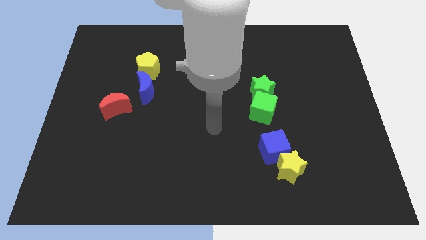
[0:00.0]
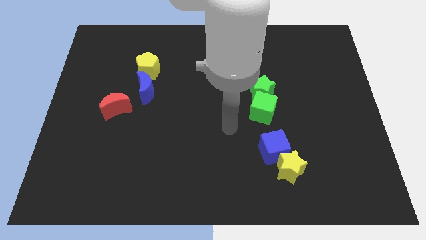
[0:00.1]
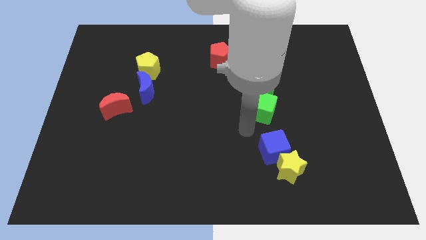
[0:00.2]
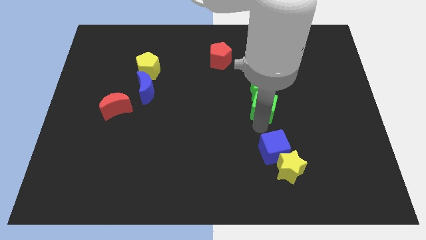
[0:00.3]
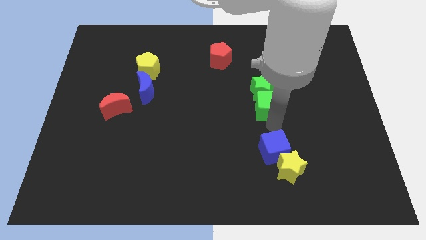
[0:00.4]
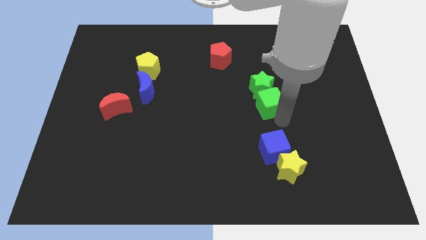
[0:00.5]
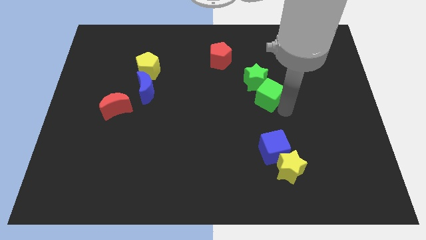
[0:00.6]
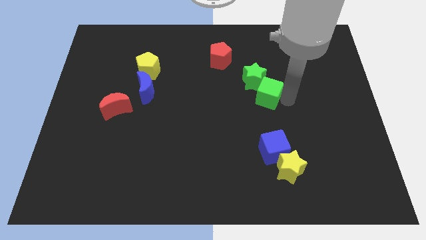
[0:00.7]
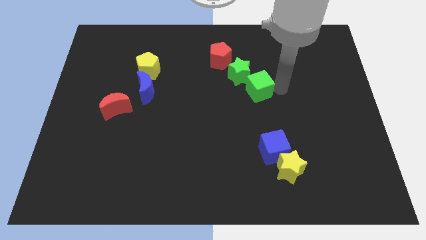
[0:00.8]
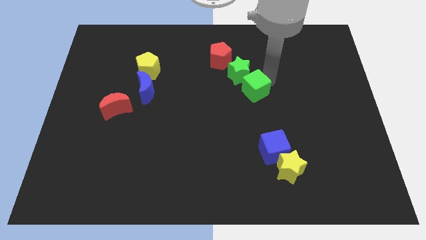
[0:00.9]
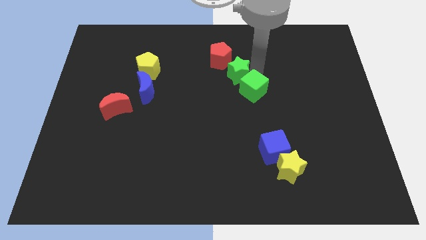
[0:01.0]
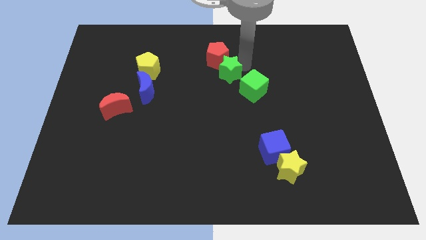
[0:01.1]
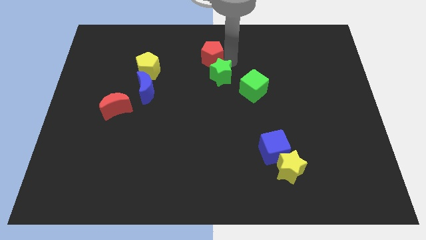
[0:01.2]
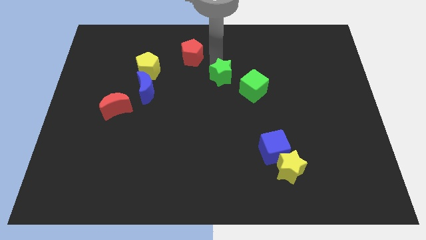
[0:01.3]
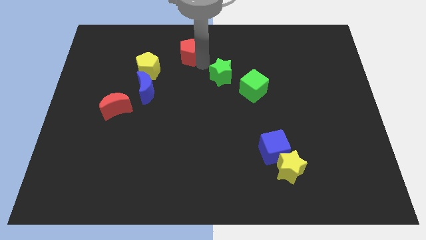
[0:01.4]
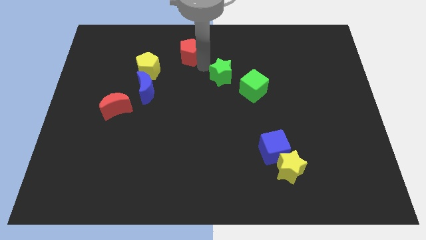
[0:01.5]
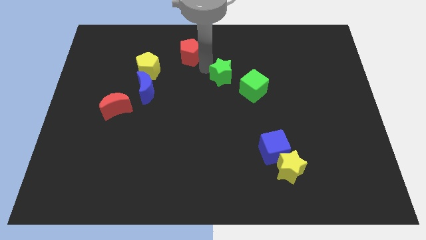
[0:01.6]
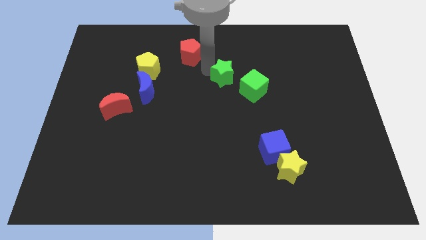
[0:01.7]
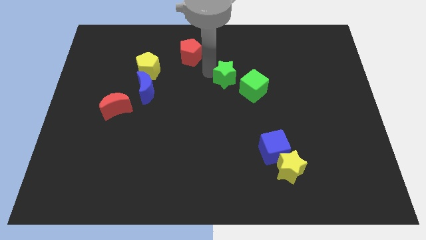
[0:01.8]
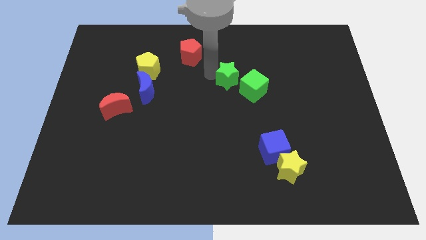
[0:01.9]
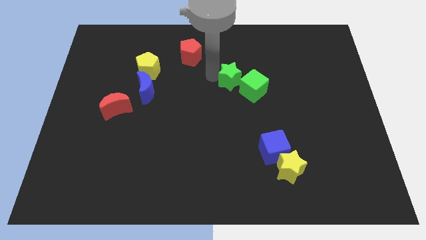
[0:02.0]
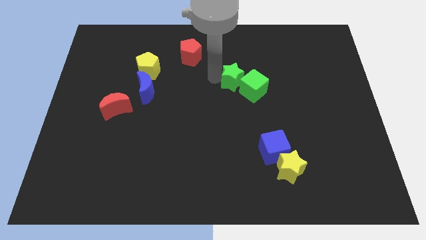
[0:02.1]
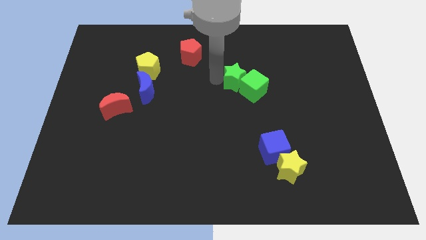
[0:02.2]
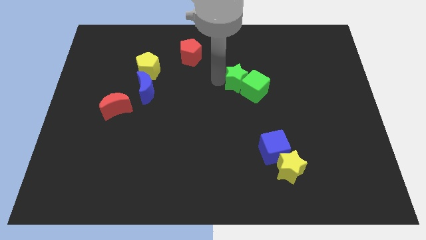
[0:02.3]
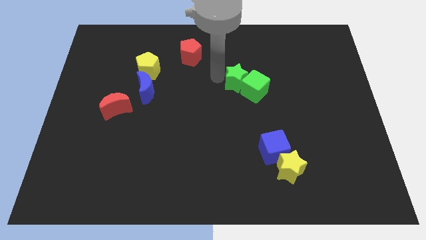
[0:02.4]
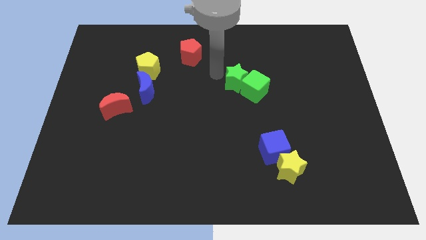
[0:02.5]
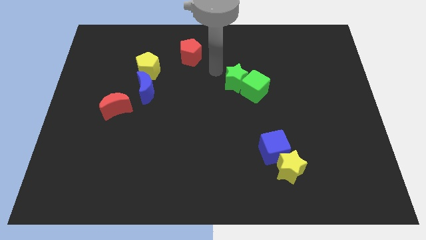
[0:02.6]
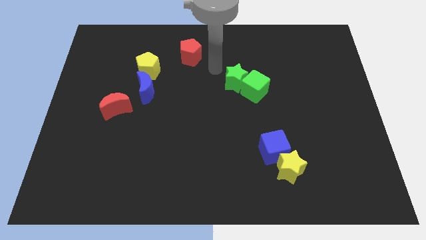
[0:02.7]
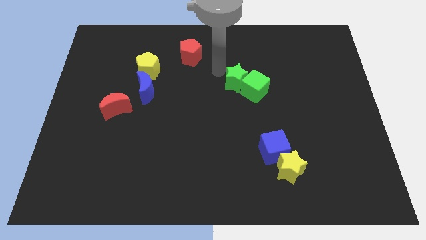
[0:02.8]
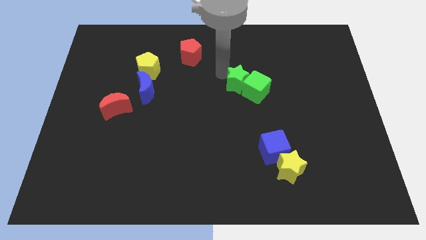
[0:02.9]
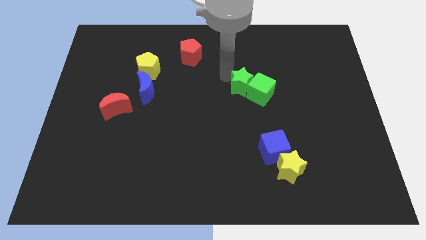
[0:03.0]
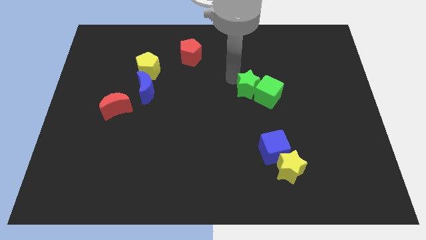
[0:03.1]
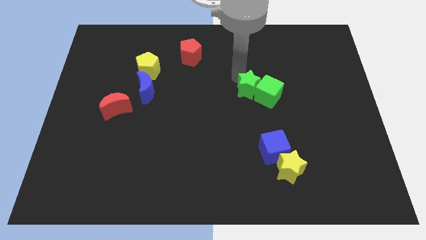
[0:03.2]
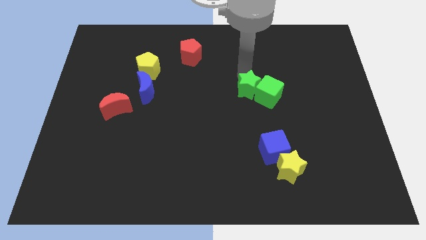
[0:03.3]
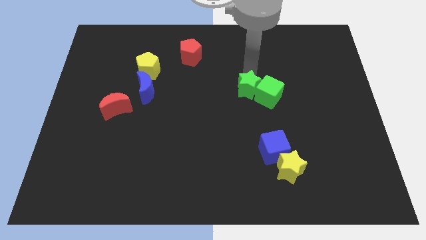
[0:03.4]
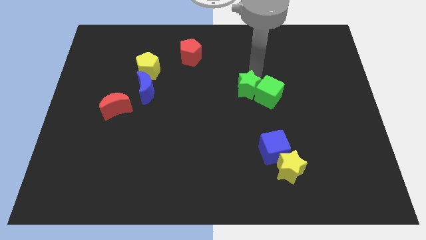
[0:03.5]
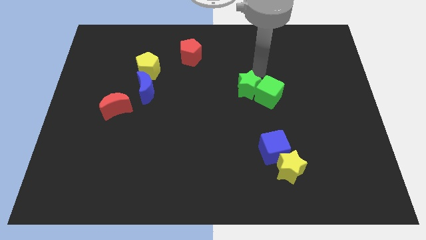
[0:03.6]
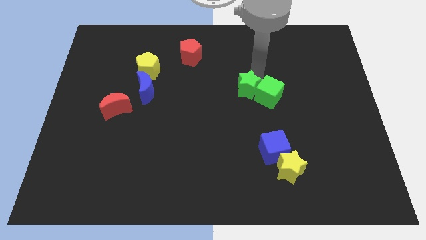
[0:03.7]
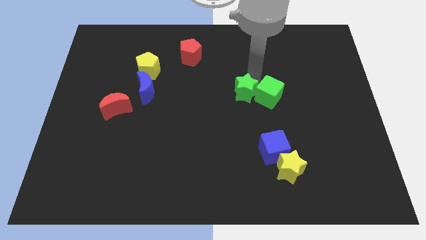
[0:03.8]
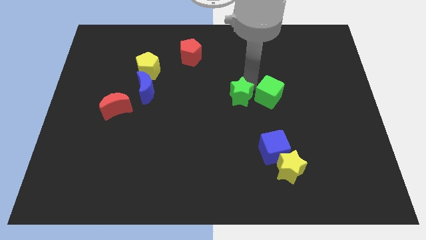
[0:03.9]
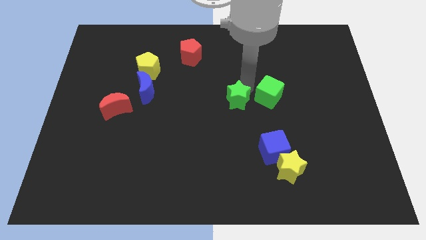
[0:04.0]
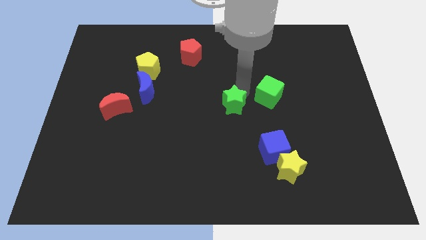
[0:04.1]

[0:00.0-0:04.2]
move the green star down and then to the left a little

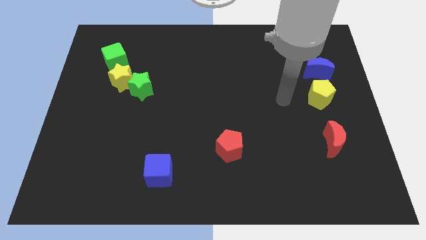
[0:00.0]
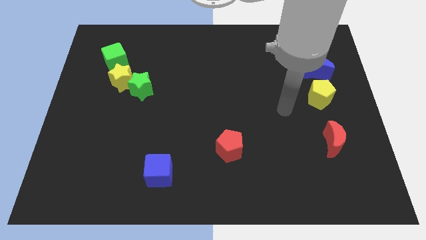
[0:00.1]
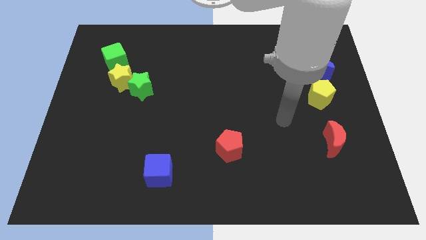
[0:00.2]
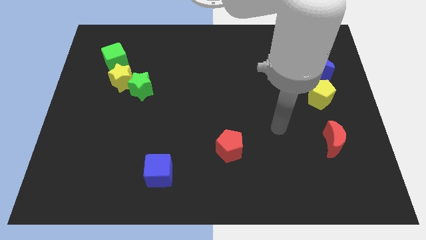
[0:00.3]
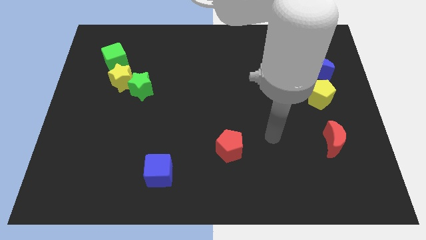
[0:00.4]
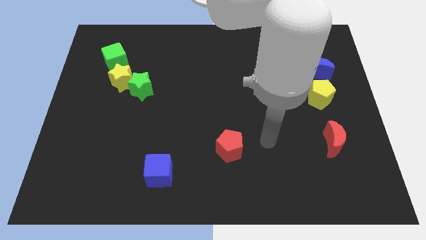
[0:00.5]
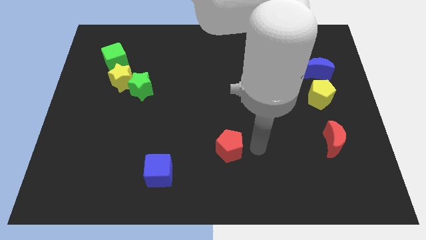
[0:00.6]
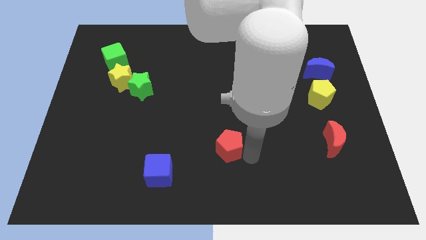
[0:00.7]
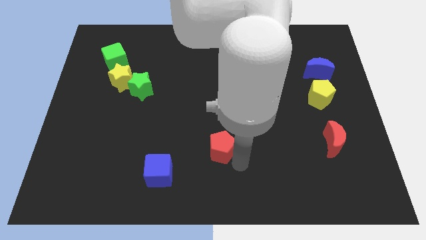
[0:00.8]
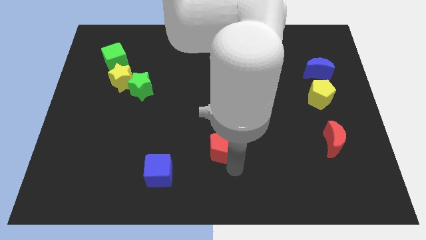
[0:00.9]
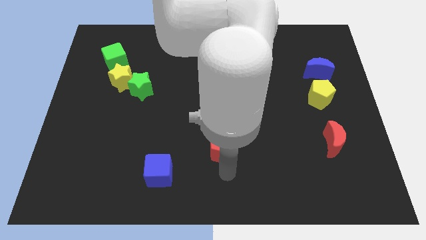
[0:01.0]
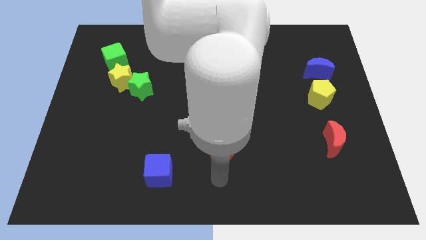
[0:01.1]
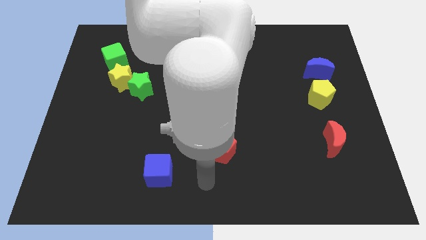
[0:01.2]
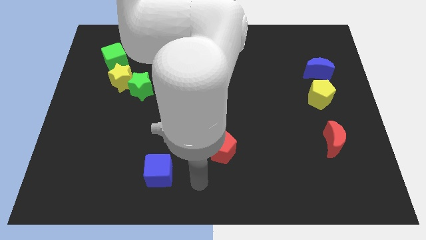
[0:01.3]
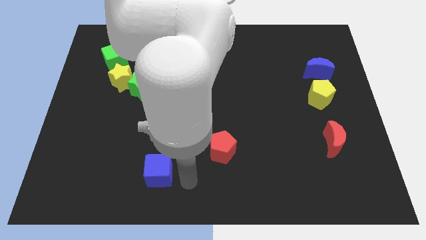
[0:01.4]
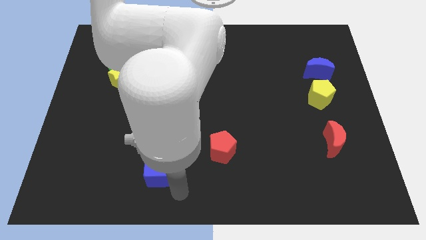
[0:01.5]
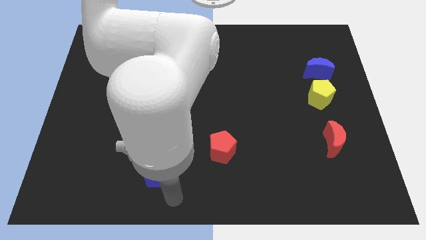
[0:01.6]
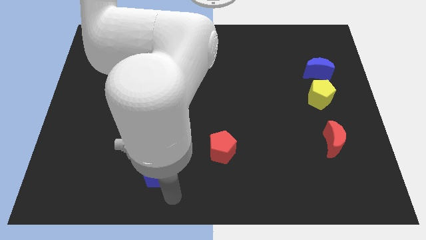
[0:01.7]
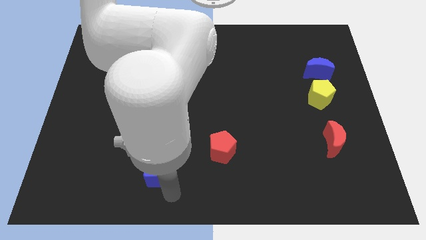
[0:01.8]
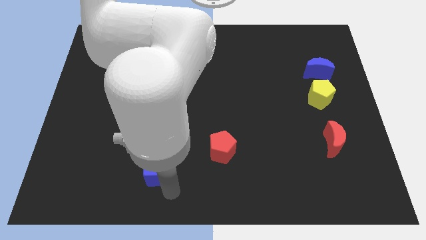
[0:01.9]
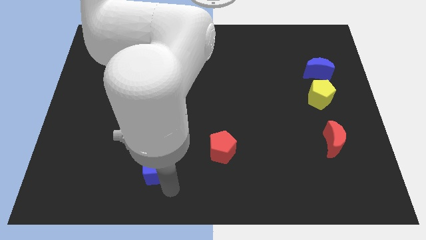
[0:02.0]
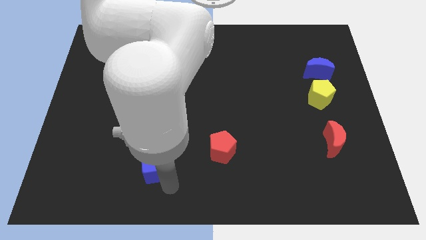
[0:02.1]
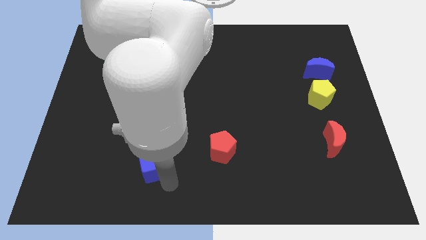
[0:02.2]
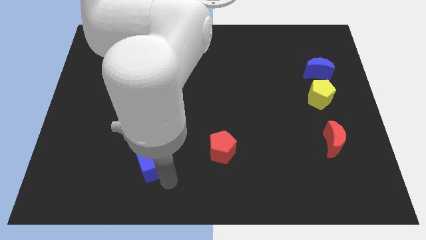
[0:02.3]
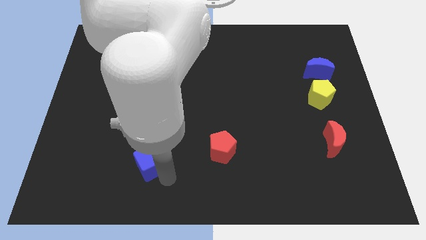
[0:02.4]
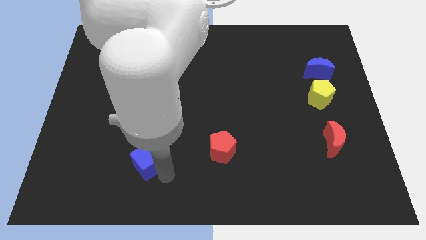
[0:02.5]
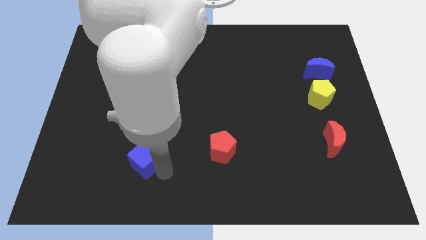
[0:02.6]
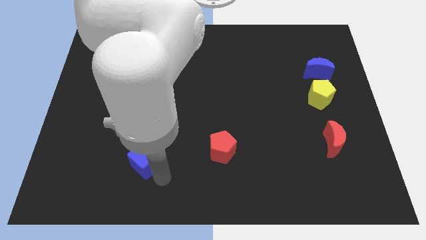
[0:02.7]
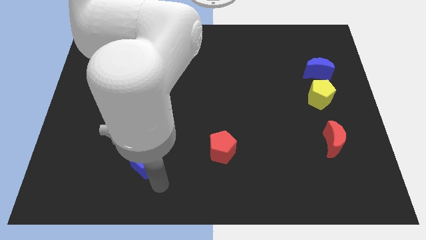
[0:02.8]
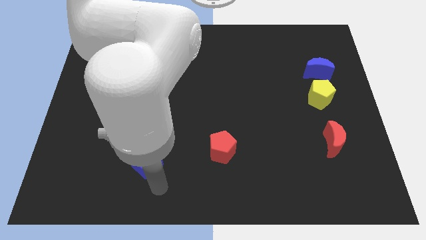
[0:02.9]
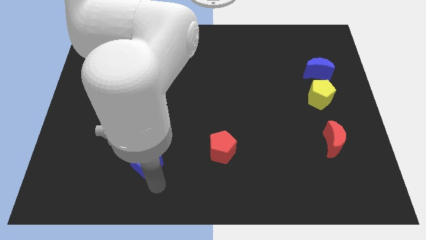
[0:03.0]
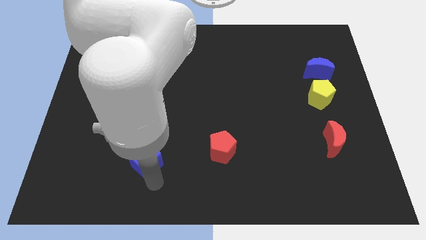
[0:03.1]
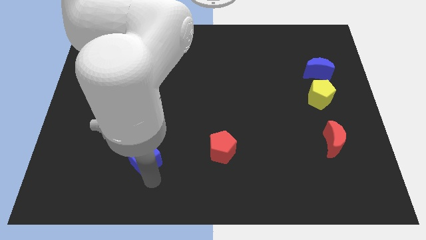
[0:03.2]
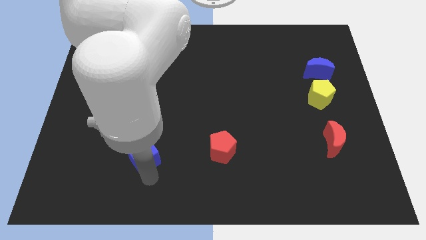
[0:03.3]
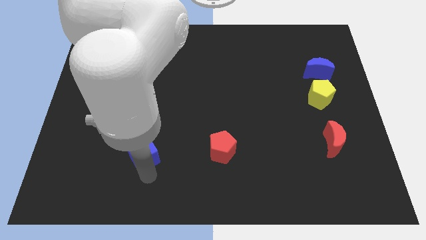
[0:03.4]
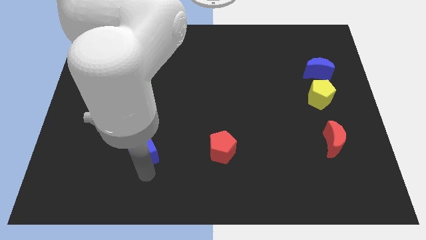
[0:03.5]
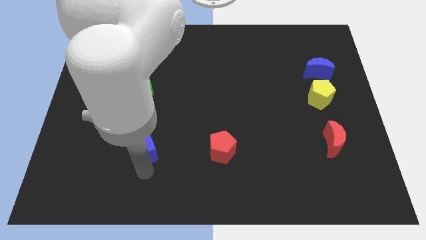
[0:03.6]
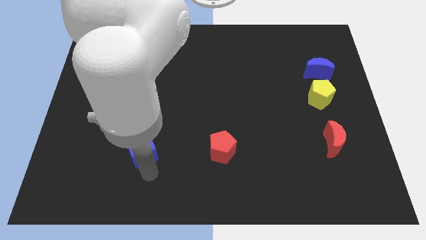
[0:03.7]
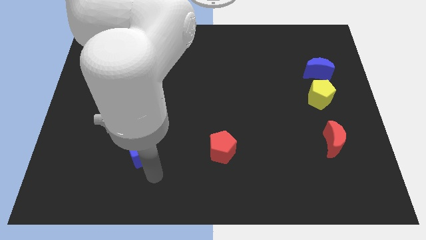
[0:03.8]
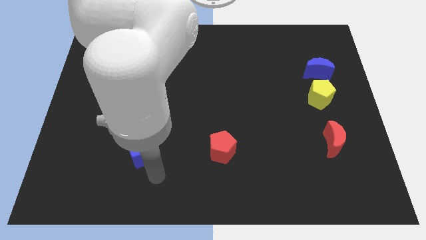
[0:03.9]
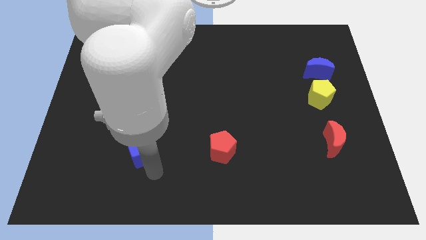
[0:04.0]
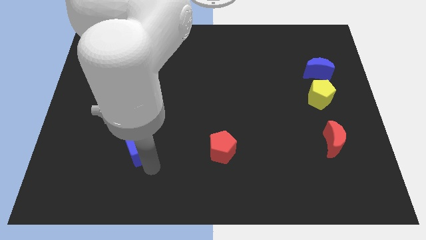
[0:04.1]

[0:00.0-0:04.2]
slide the blue cube up and to the left a bit
